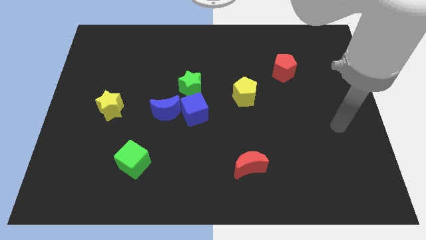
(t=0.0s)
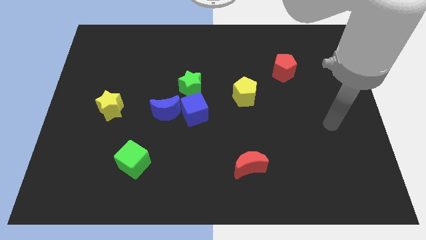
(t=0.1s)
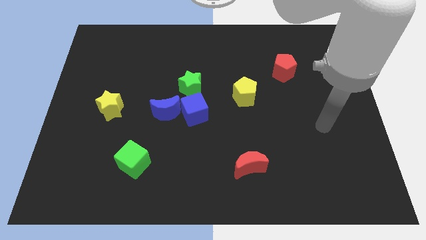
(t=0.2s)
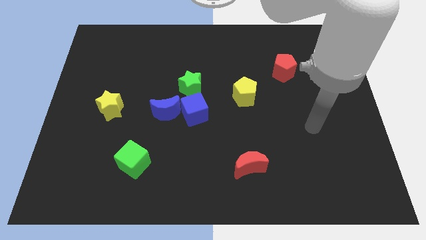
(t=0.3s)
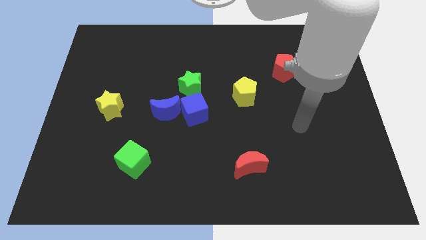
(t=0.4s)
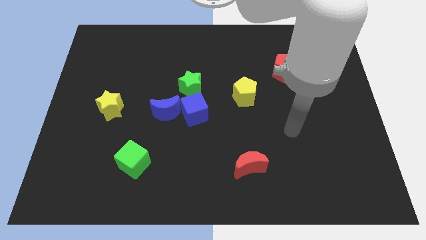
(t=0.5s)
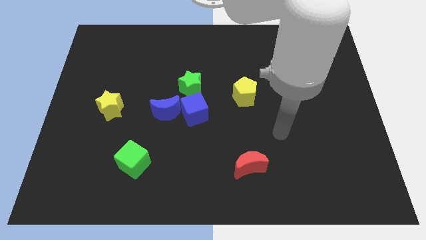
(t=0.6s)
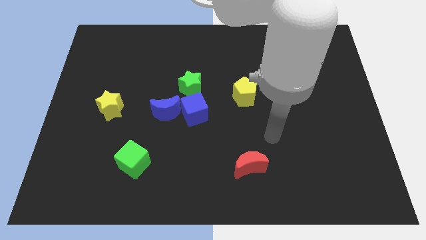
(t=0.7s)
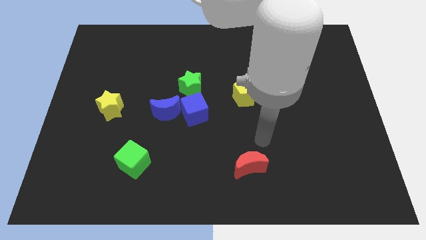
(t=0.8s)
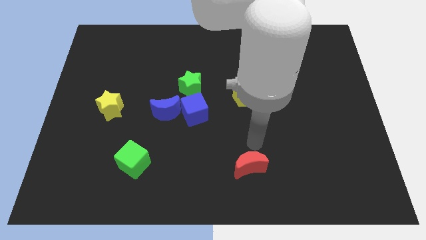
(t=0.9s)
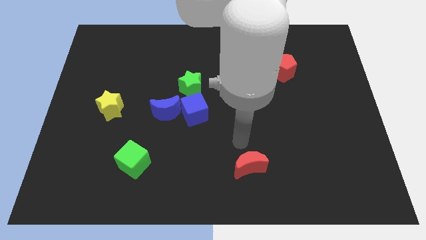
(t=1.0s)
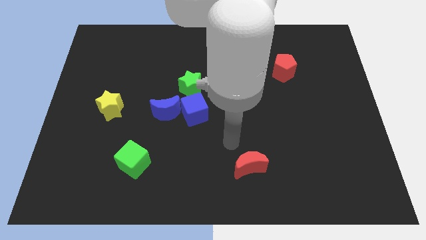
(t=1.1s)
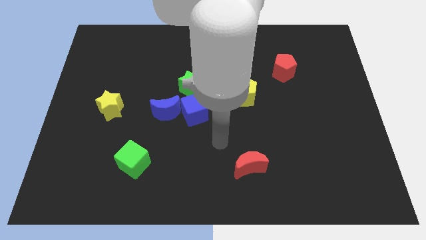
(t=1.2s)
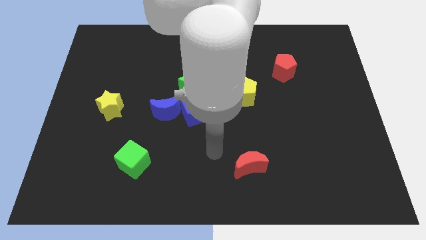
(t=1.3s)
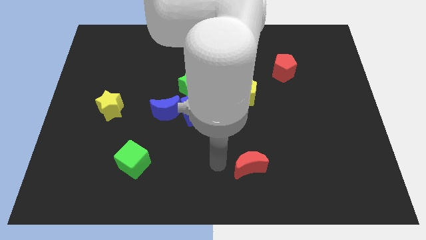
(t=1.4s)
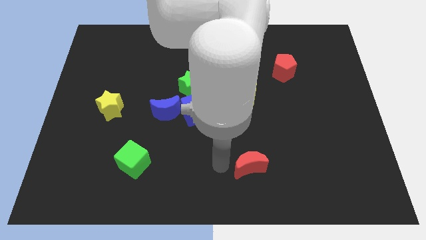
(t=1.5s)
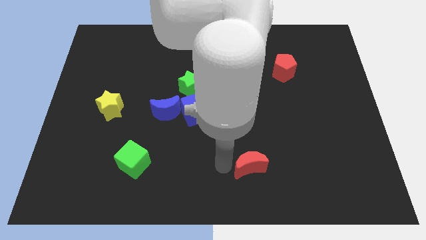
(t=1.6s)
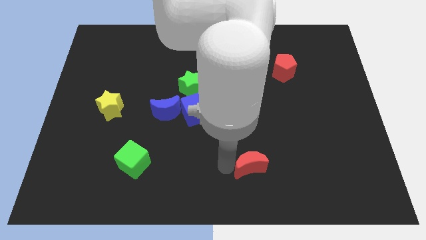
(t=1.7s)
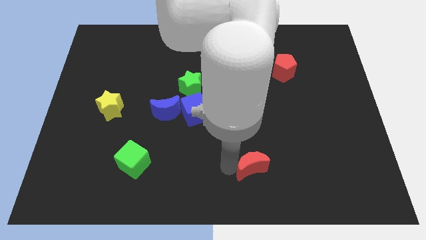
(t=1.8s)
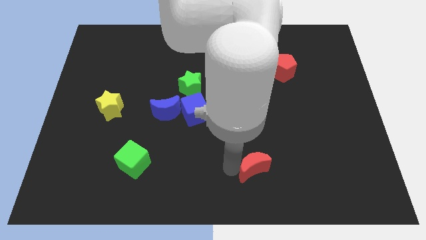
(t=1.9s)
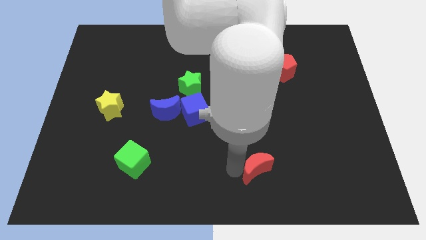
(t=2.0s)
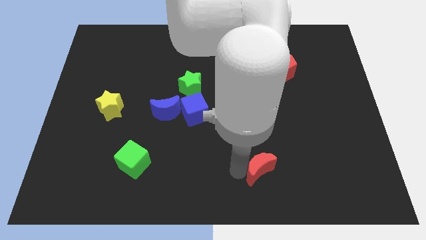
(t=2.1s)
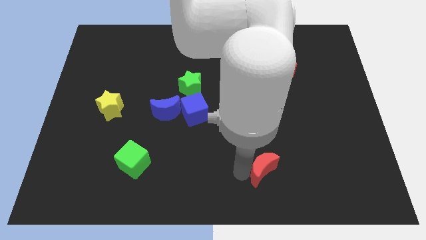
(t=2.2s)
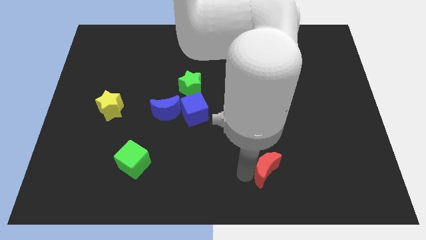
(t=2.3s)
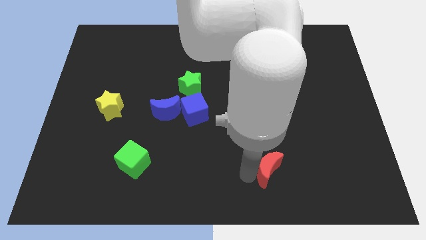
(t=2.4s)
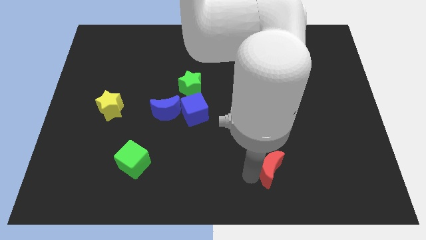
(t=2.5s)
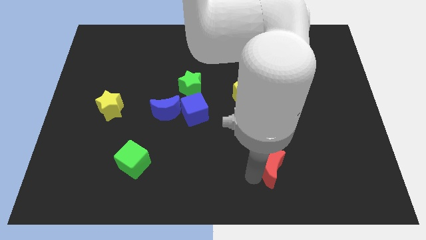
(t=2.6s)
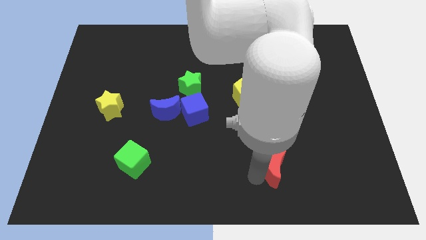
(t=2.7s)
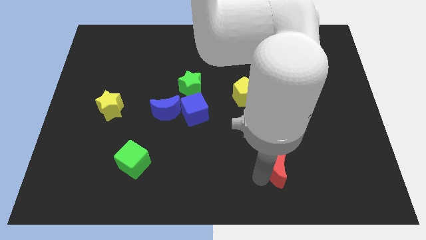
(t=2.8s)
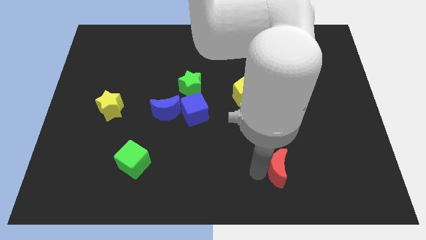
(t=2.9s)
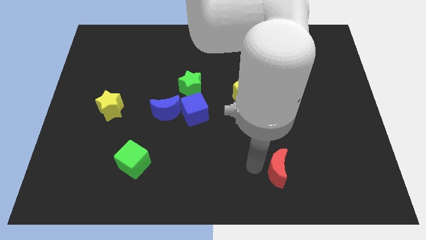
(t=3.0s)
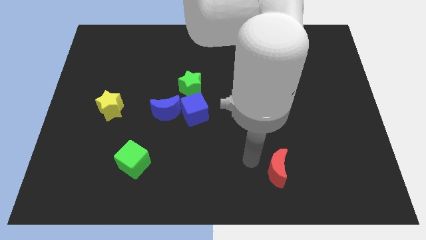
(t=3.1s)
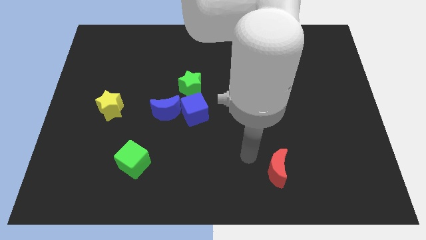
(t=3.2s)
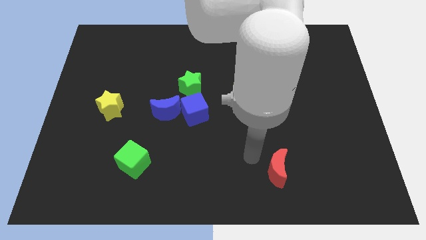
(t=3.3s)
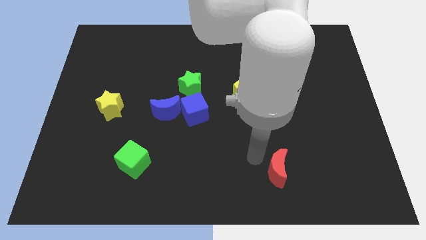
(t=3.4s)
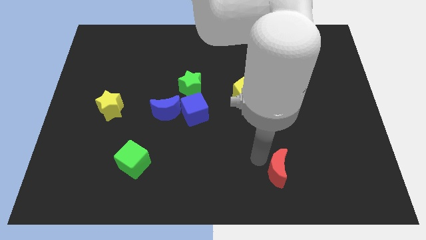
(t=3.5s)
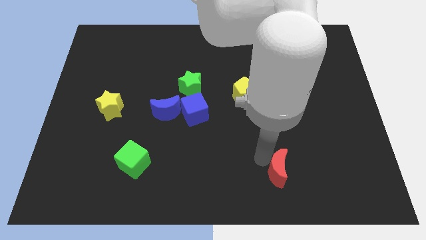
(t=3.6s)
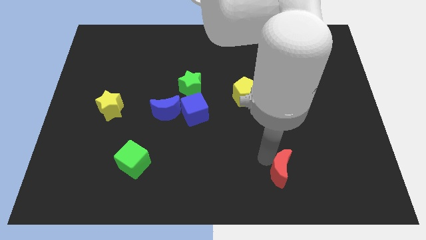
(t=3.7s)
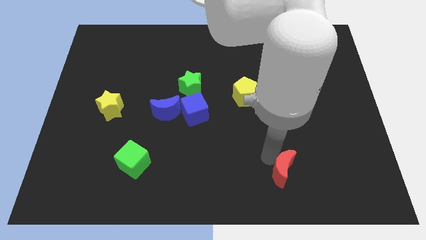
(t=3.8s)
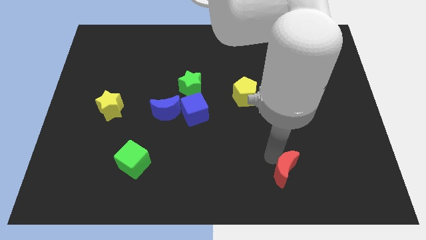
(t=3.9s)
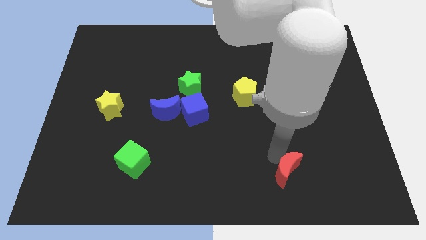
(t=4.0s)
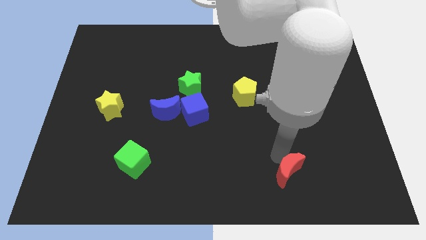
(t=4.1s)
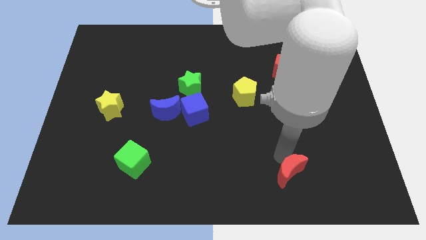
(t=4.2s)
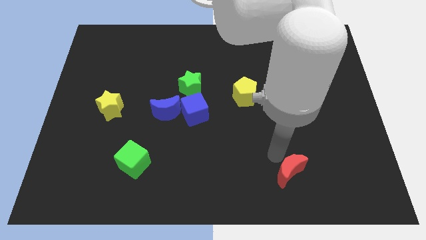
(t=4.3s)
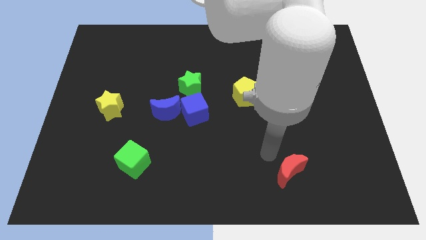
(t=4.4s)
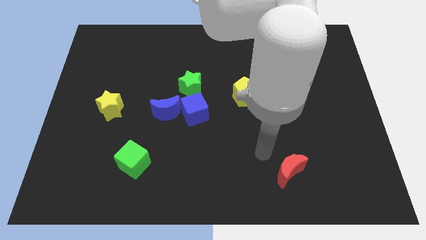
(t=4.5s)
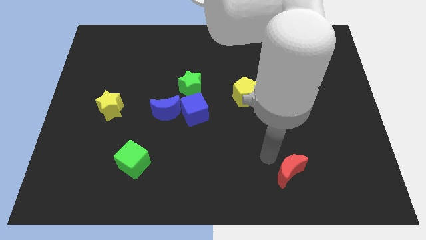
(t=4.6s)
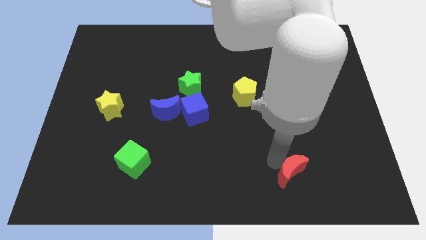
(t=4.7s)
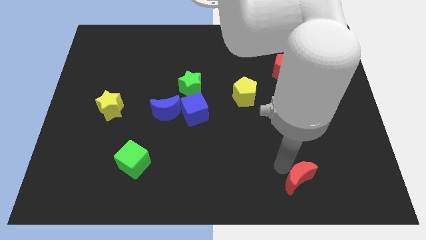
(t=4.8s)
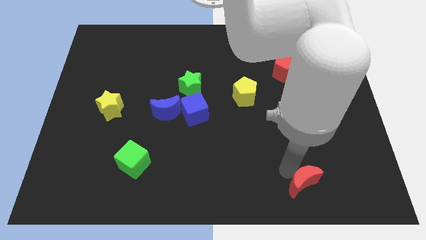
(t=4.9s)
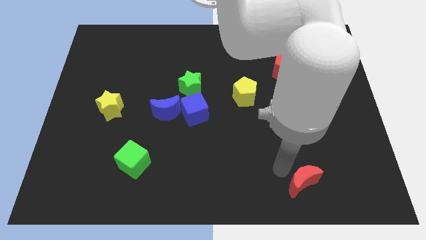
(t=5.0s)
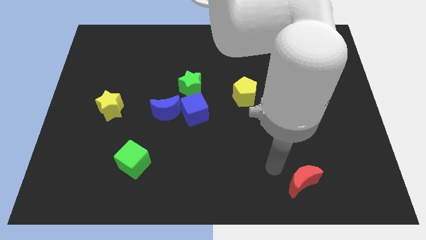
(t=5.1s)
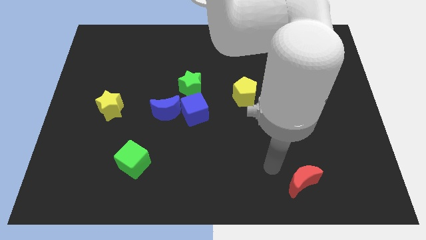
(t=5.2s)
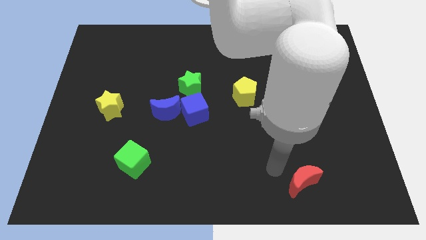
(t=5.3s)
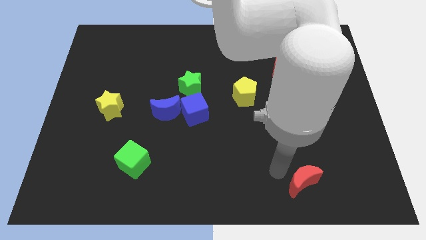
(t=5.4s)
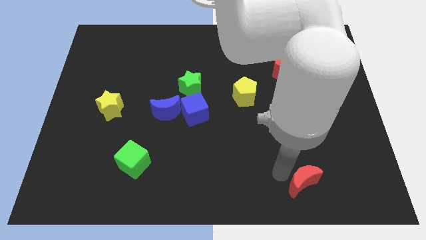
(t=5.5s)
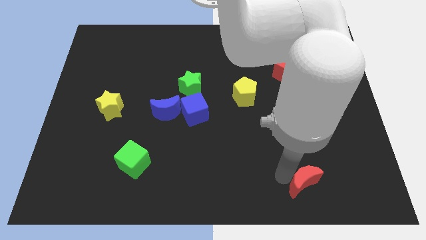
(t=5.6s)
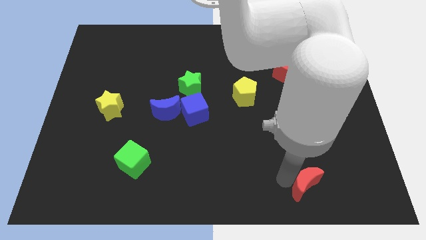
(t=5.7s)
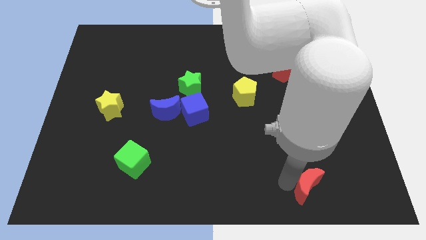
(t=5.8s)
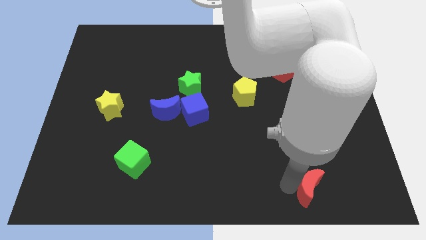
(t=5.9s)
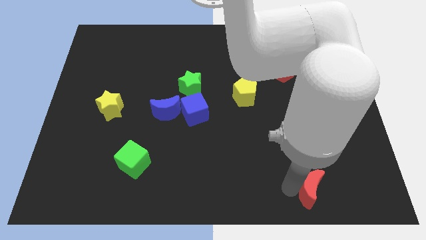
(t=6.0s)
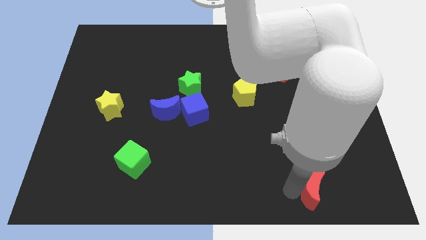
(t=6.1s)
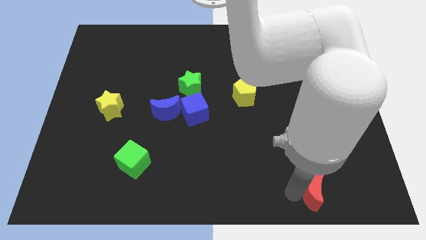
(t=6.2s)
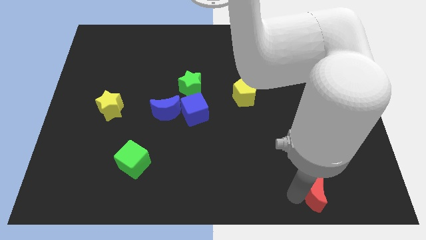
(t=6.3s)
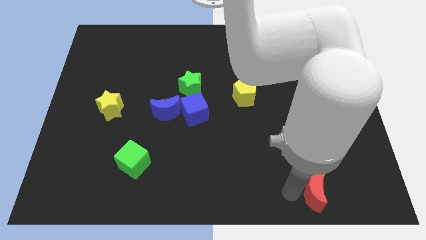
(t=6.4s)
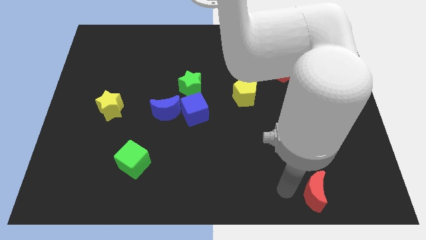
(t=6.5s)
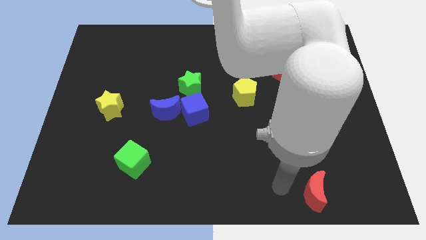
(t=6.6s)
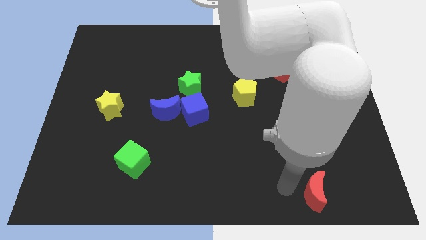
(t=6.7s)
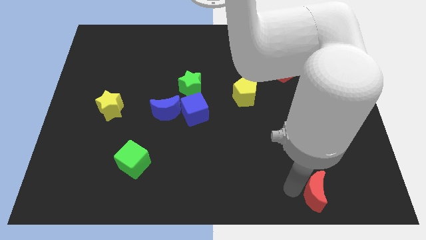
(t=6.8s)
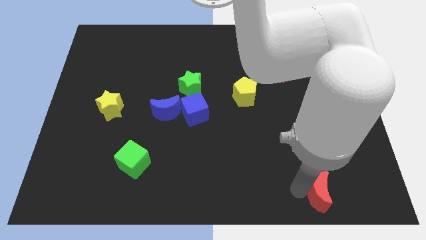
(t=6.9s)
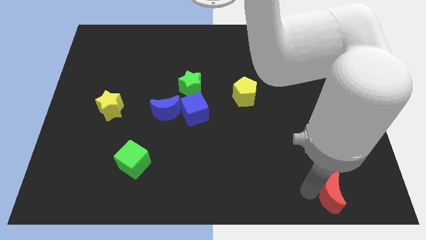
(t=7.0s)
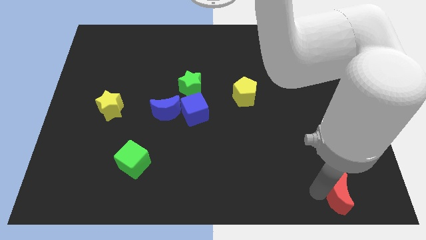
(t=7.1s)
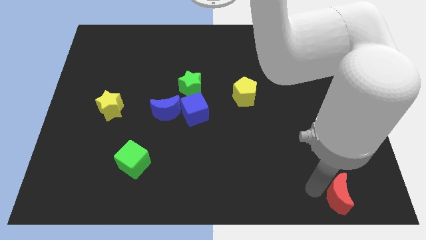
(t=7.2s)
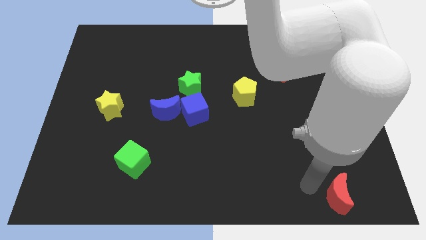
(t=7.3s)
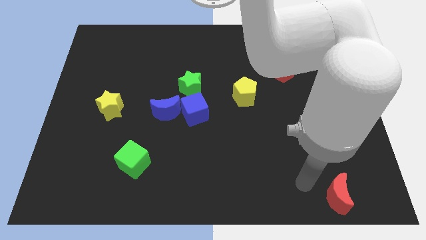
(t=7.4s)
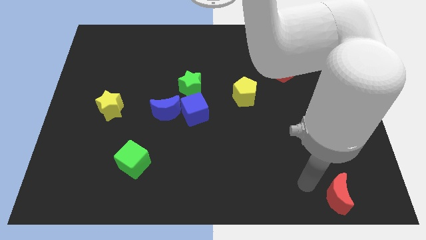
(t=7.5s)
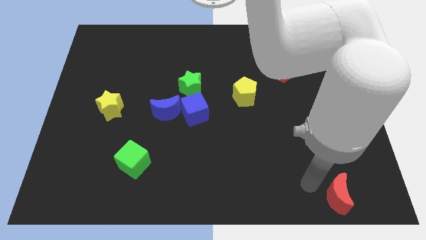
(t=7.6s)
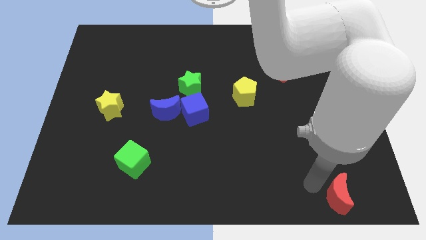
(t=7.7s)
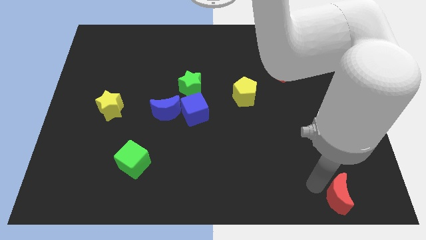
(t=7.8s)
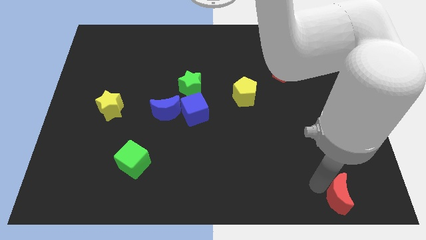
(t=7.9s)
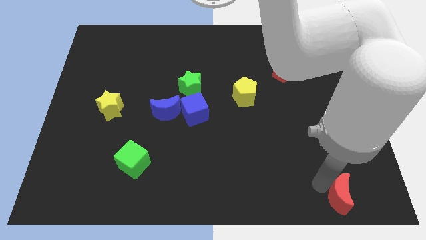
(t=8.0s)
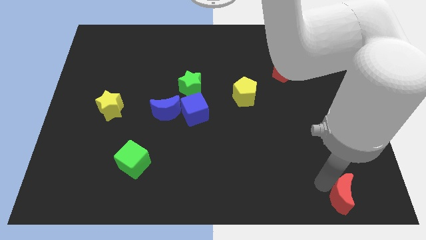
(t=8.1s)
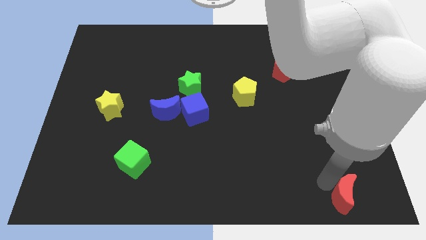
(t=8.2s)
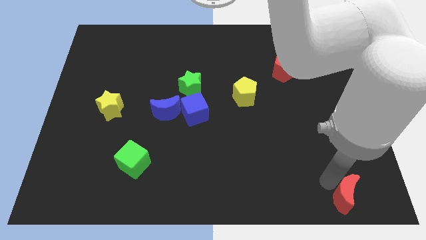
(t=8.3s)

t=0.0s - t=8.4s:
move the red moon to the lower right corner
